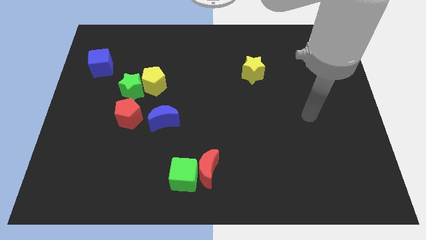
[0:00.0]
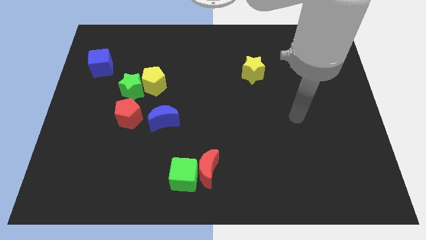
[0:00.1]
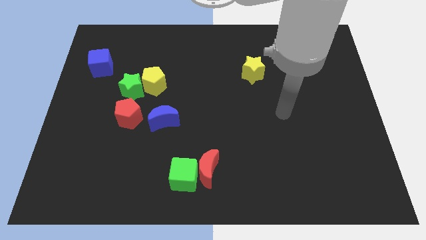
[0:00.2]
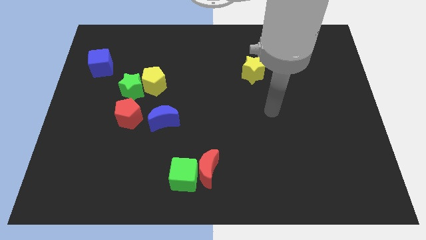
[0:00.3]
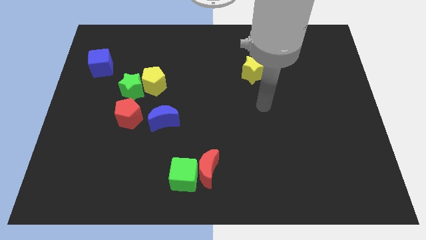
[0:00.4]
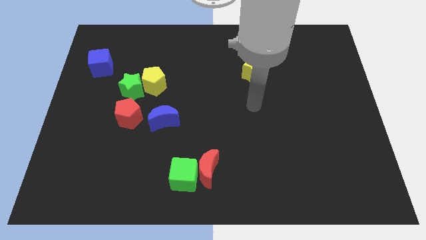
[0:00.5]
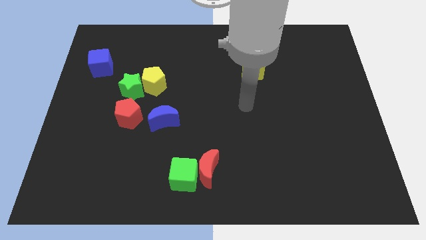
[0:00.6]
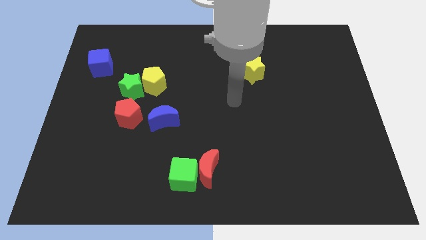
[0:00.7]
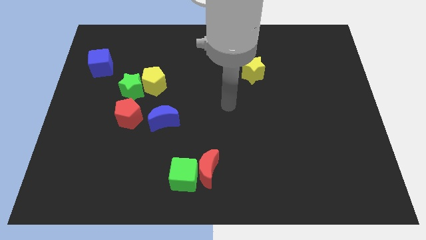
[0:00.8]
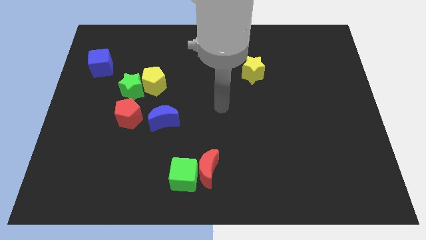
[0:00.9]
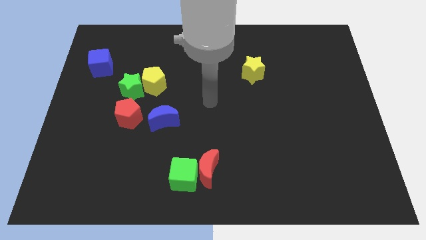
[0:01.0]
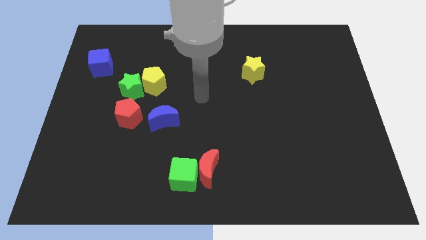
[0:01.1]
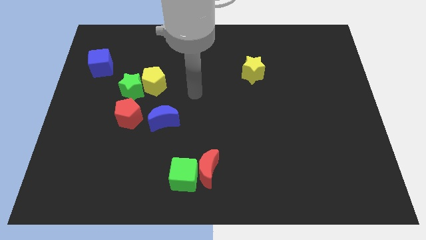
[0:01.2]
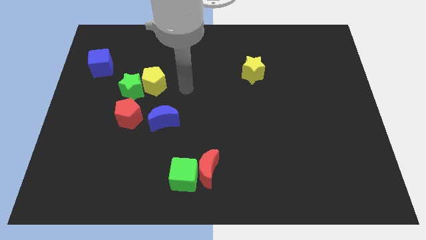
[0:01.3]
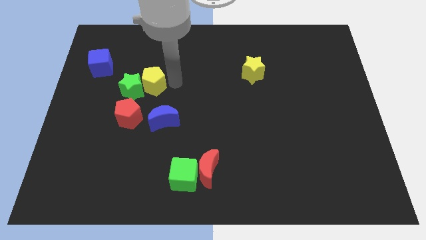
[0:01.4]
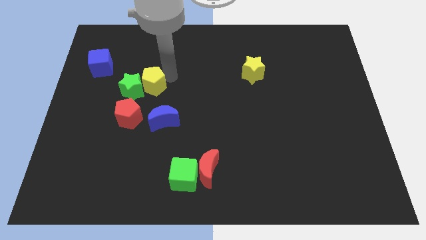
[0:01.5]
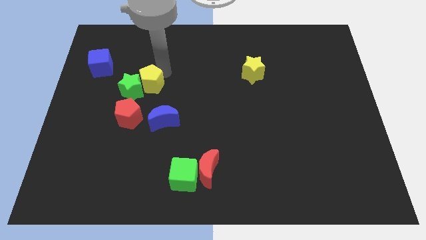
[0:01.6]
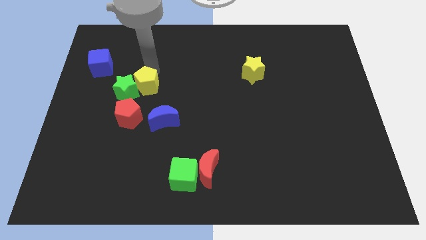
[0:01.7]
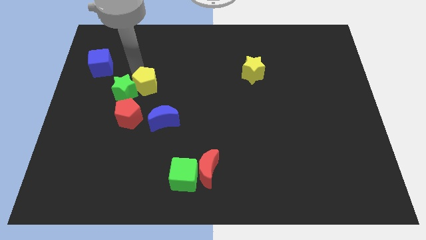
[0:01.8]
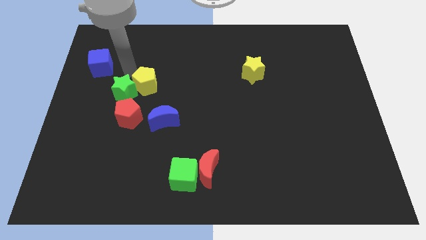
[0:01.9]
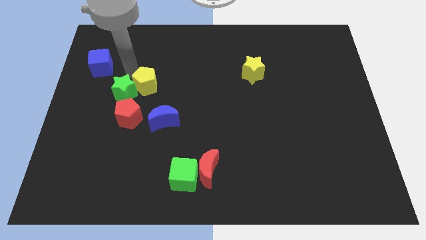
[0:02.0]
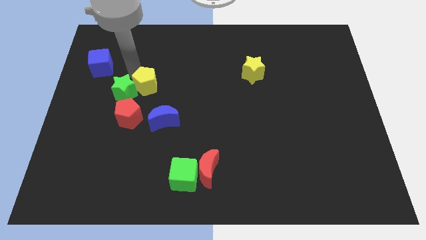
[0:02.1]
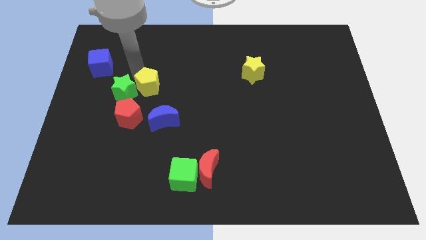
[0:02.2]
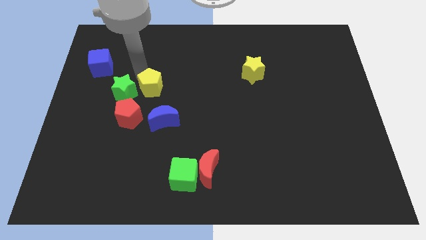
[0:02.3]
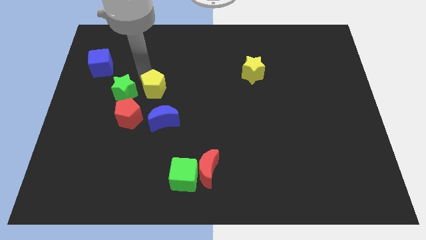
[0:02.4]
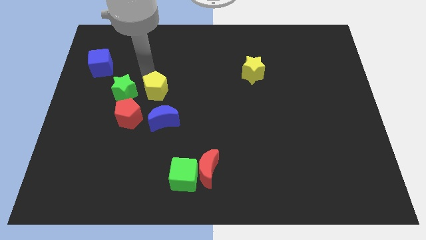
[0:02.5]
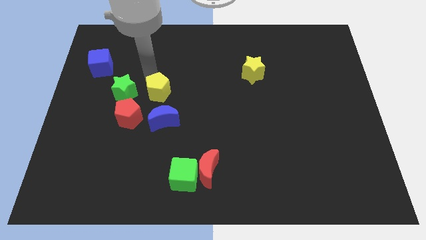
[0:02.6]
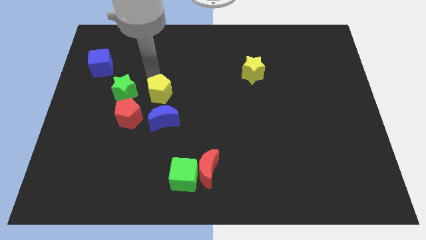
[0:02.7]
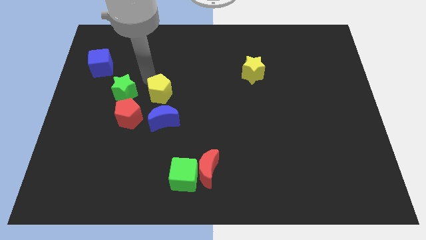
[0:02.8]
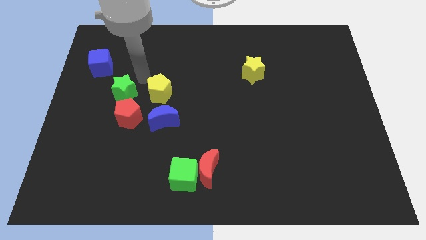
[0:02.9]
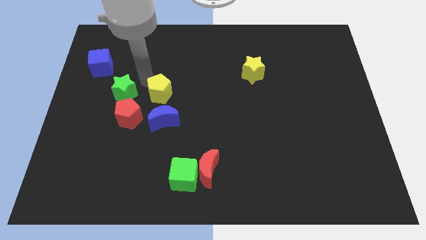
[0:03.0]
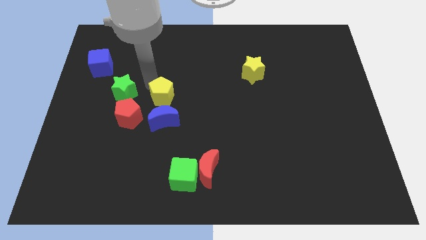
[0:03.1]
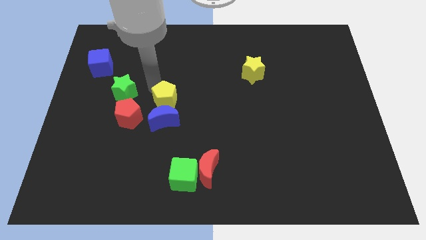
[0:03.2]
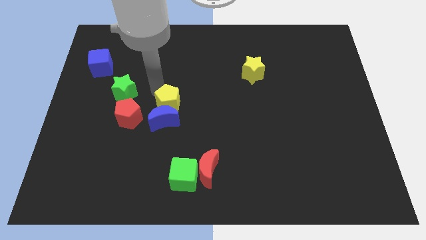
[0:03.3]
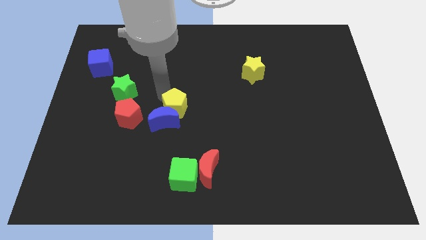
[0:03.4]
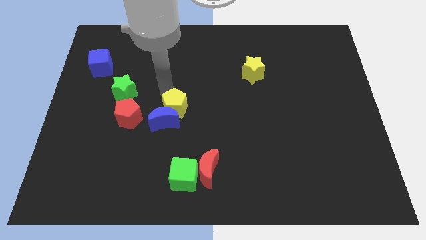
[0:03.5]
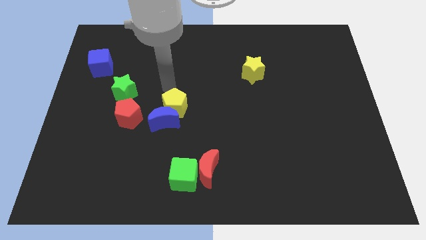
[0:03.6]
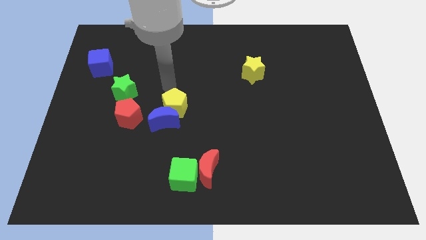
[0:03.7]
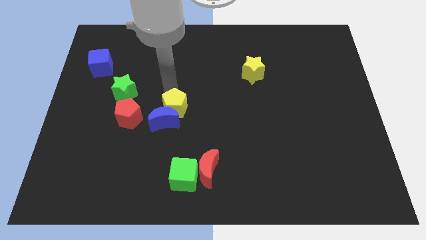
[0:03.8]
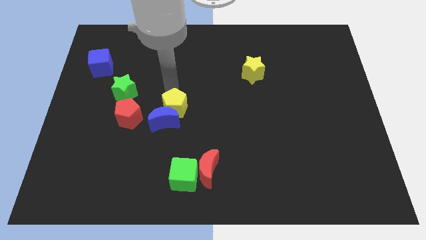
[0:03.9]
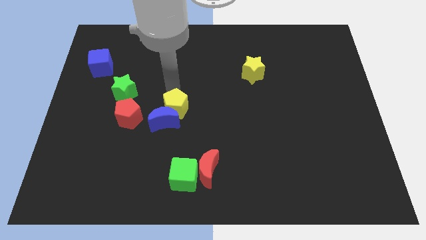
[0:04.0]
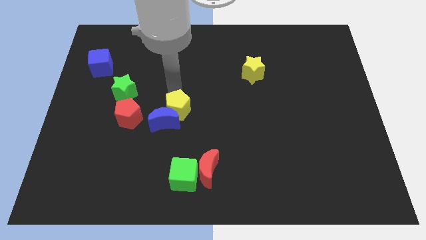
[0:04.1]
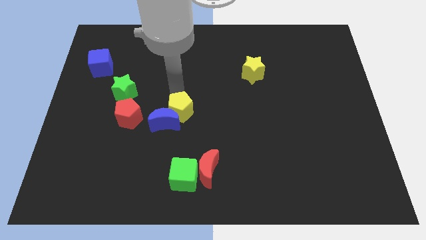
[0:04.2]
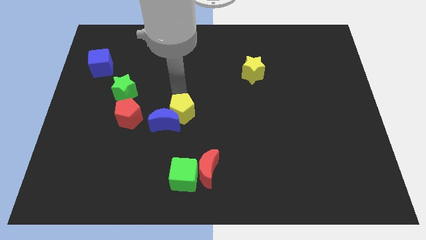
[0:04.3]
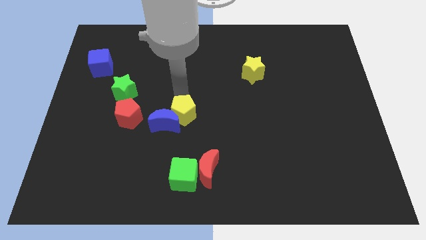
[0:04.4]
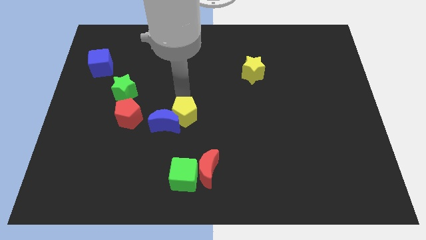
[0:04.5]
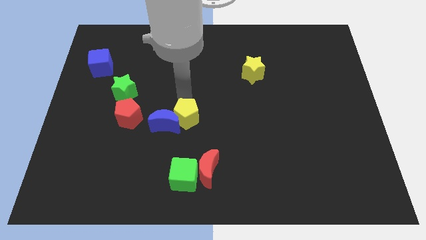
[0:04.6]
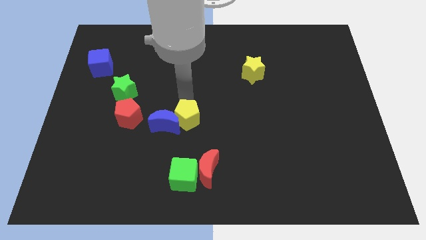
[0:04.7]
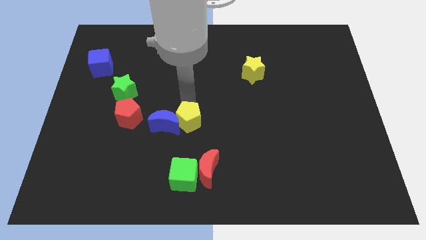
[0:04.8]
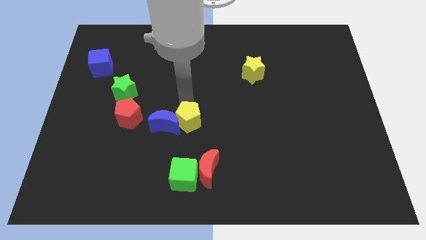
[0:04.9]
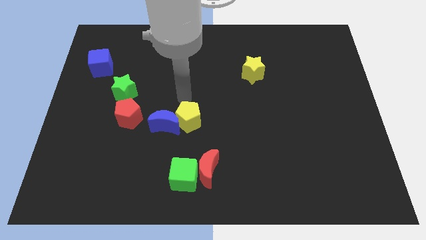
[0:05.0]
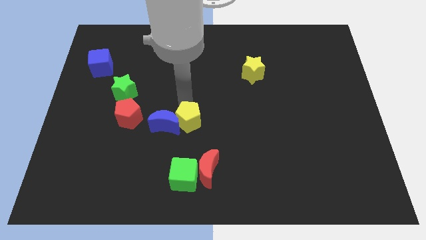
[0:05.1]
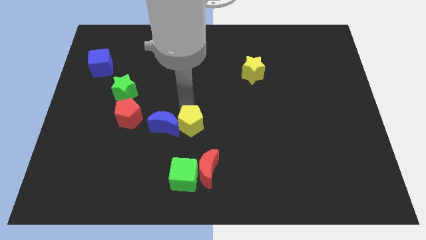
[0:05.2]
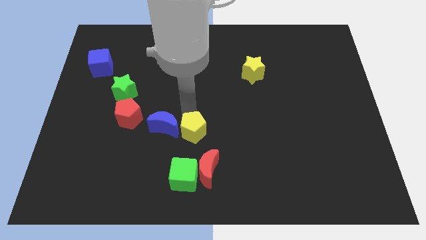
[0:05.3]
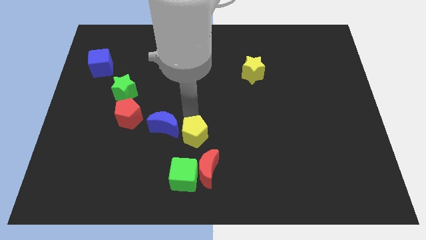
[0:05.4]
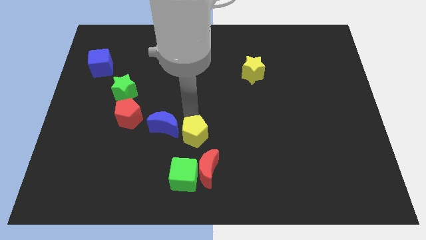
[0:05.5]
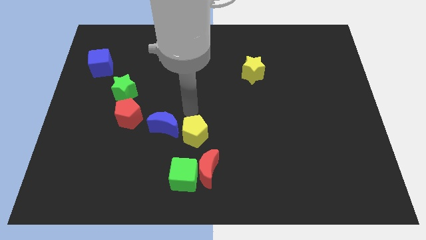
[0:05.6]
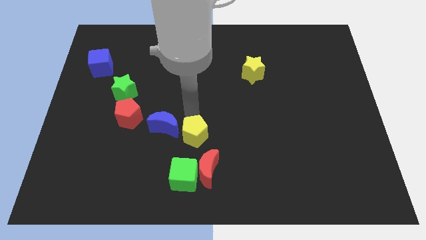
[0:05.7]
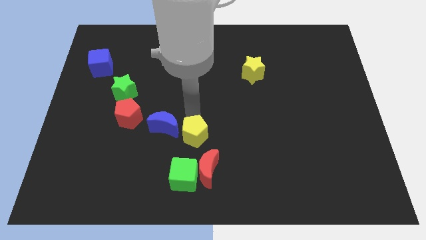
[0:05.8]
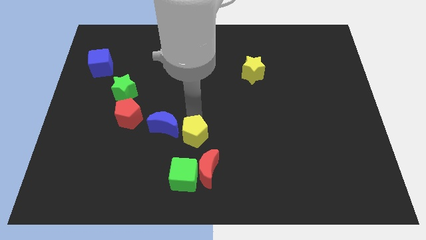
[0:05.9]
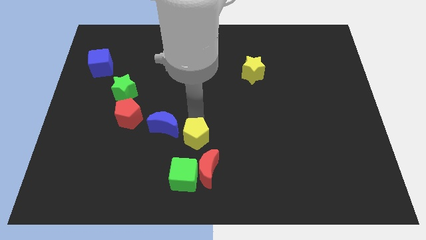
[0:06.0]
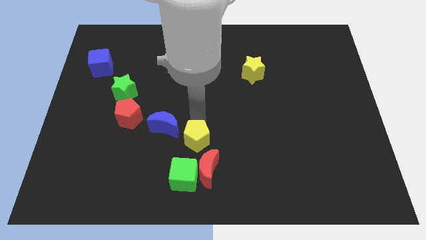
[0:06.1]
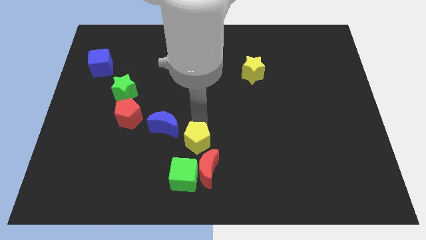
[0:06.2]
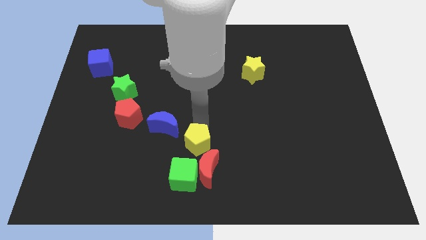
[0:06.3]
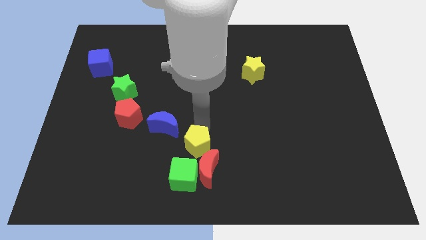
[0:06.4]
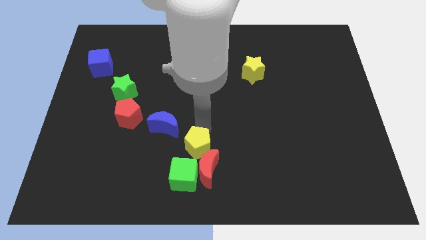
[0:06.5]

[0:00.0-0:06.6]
move the yellow pentagon next to the red moon
